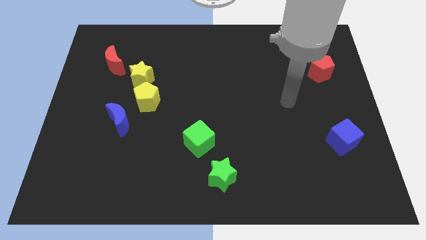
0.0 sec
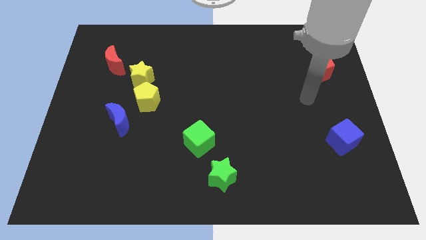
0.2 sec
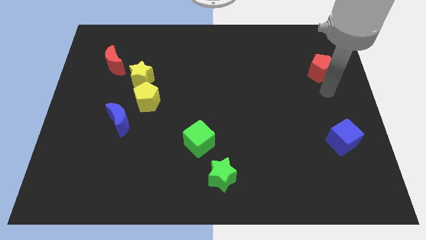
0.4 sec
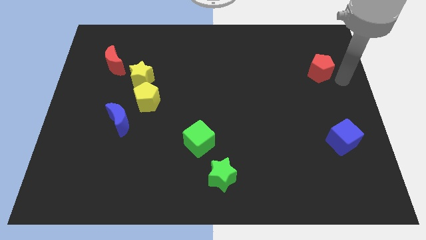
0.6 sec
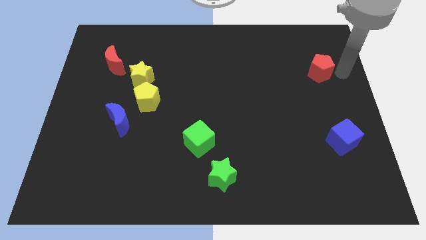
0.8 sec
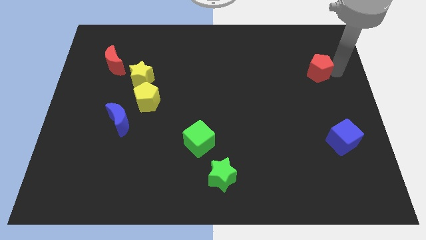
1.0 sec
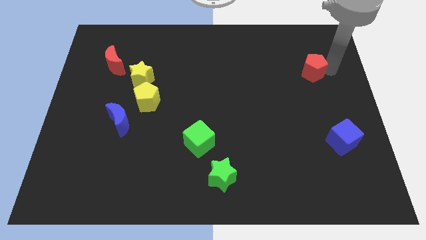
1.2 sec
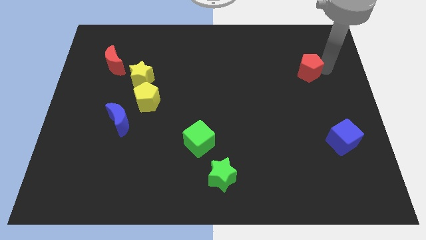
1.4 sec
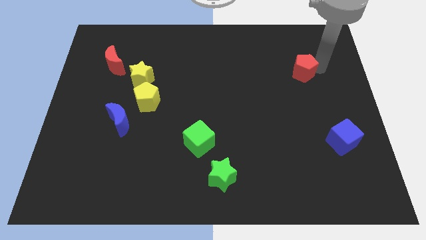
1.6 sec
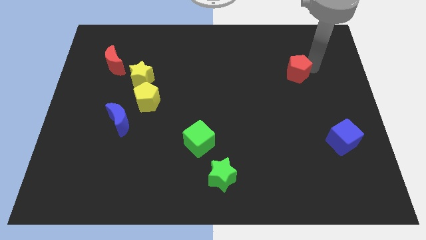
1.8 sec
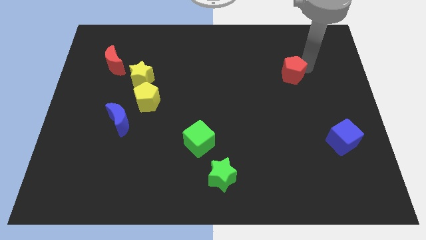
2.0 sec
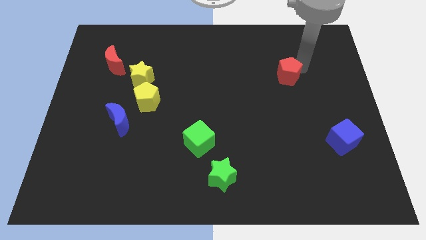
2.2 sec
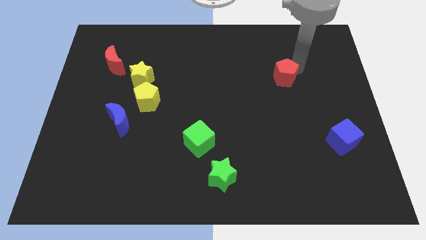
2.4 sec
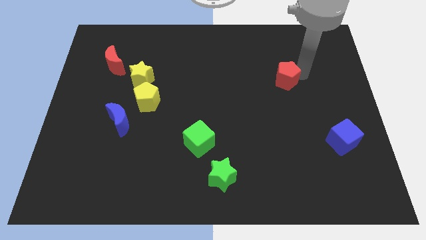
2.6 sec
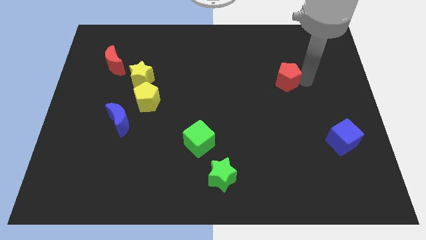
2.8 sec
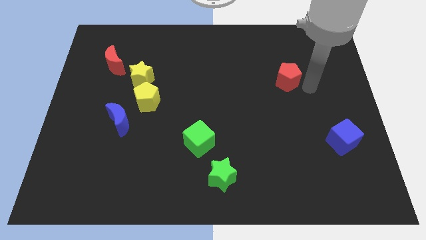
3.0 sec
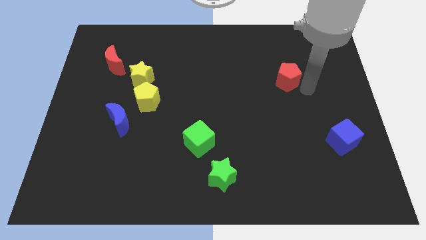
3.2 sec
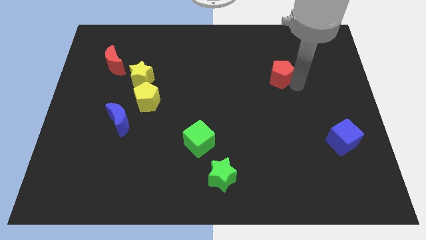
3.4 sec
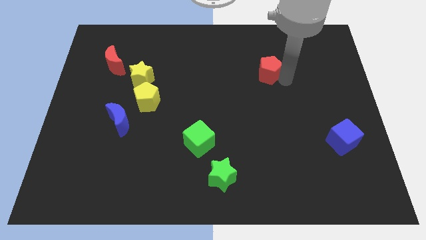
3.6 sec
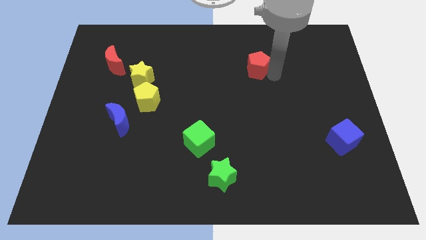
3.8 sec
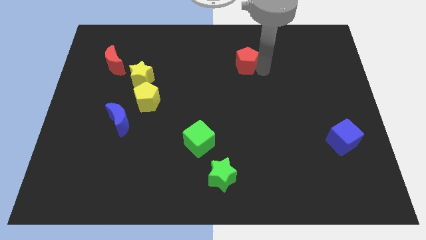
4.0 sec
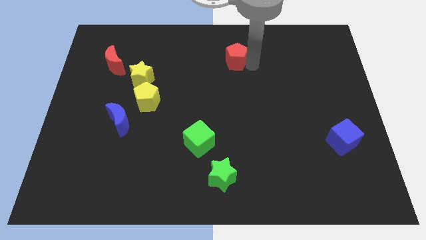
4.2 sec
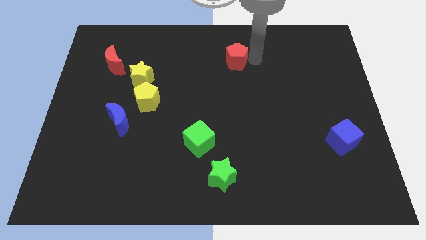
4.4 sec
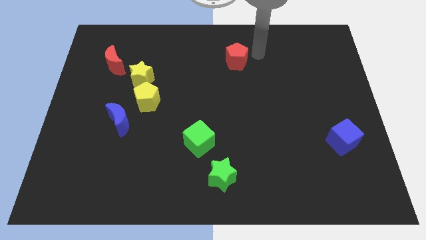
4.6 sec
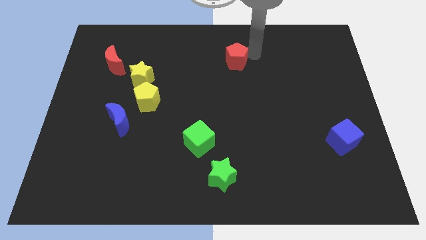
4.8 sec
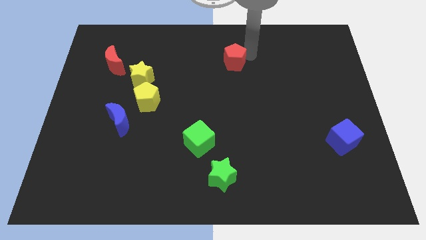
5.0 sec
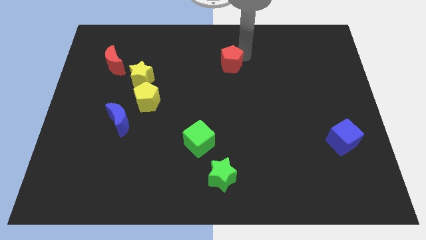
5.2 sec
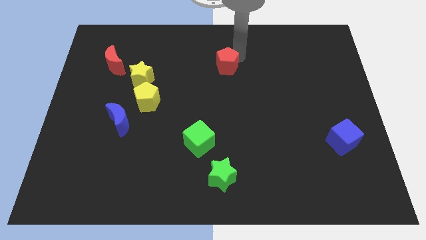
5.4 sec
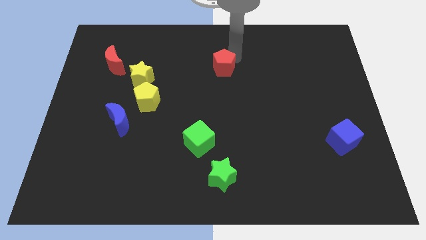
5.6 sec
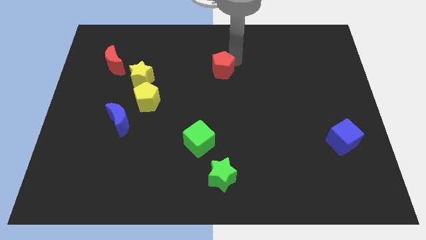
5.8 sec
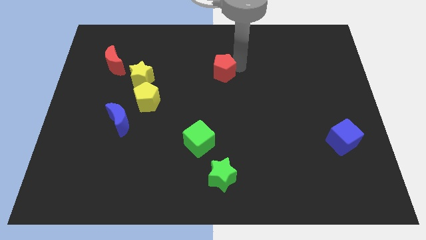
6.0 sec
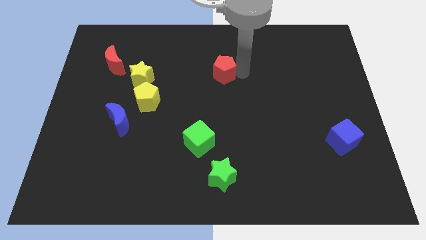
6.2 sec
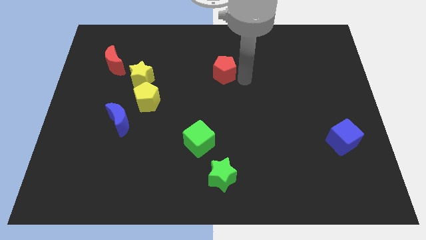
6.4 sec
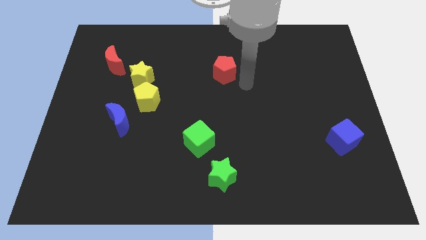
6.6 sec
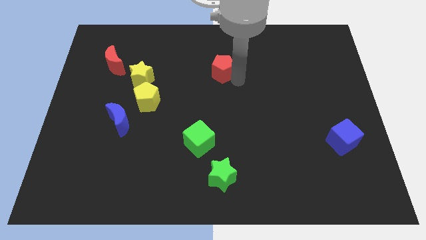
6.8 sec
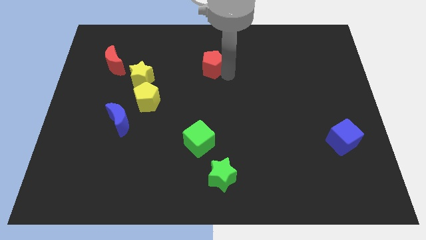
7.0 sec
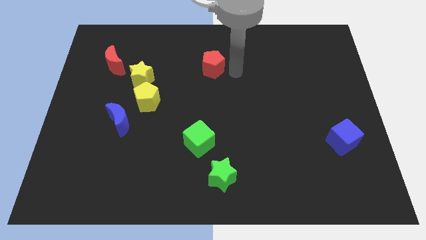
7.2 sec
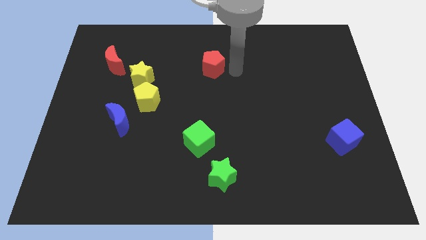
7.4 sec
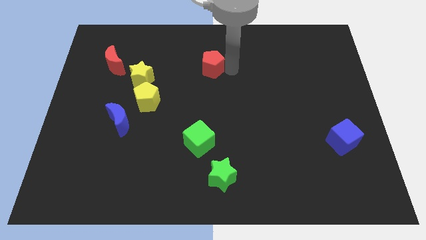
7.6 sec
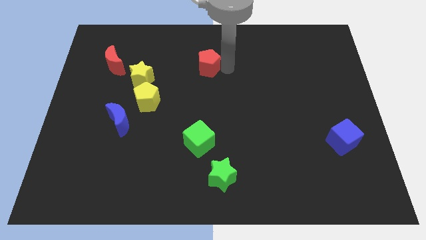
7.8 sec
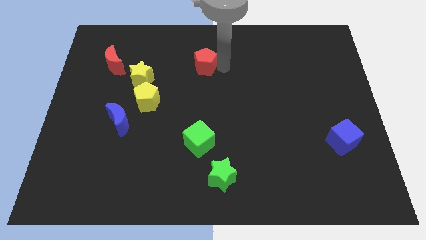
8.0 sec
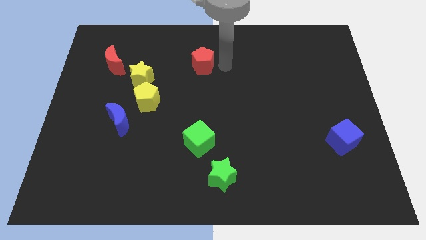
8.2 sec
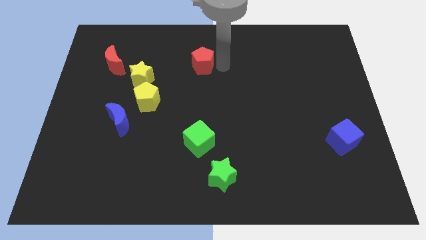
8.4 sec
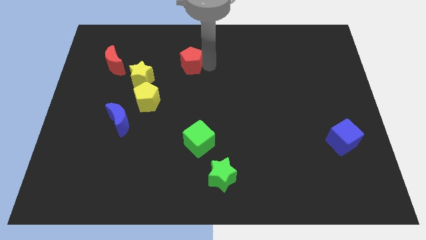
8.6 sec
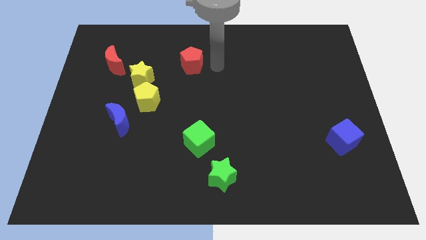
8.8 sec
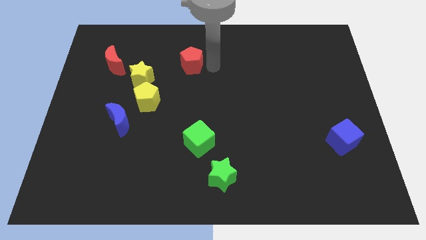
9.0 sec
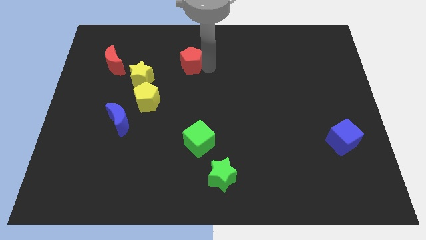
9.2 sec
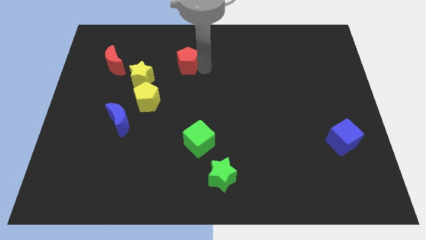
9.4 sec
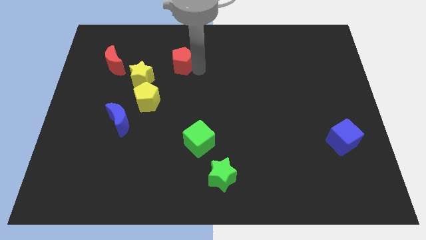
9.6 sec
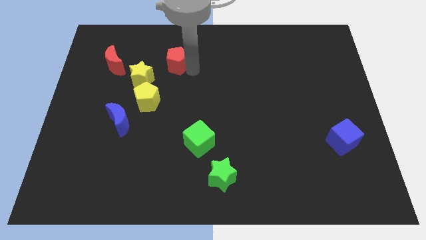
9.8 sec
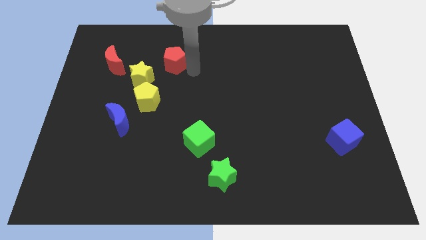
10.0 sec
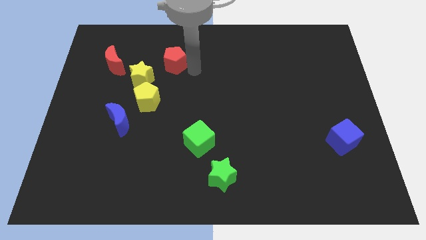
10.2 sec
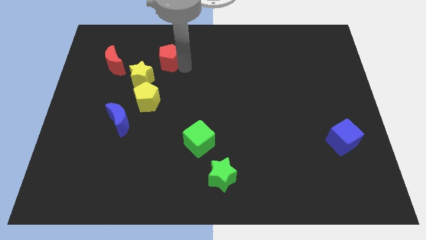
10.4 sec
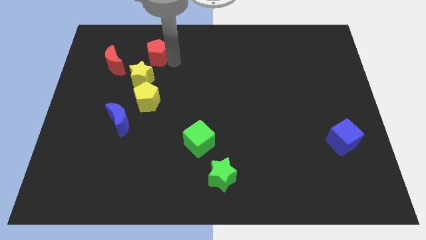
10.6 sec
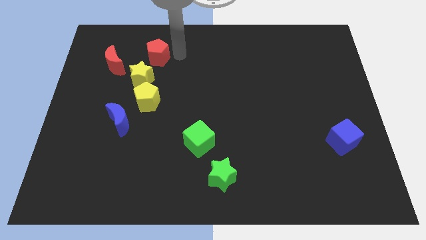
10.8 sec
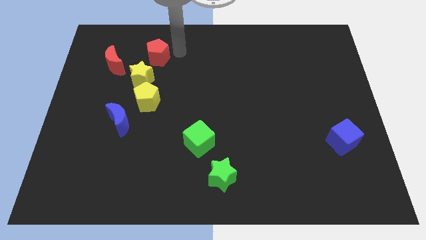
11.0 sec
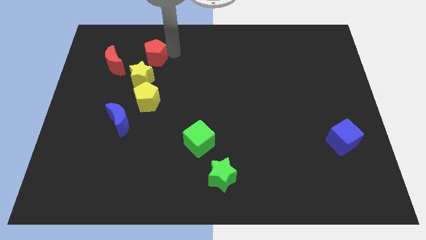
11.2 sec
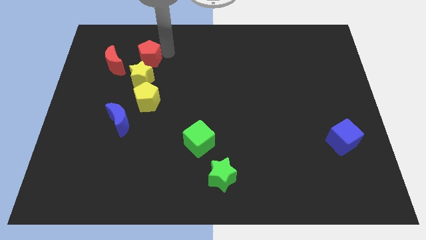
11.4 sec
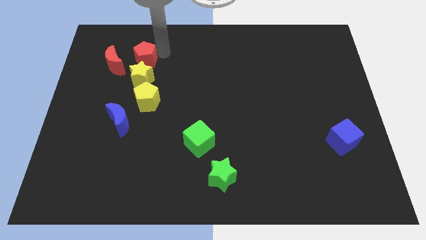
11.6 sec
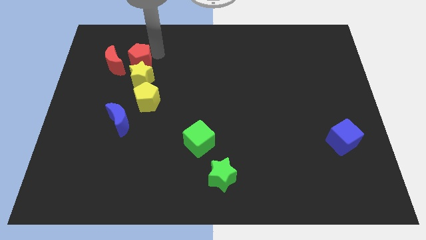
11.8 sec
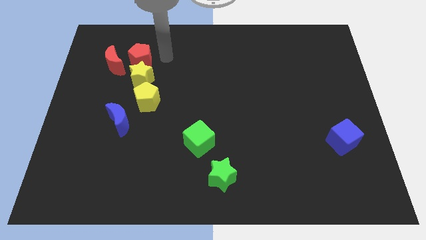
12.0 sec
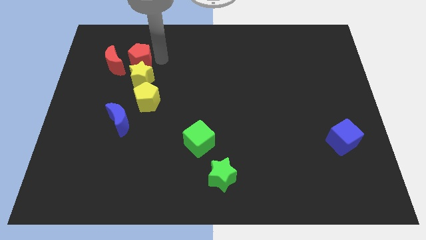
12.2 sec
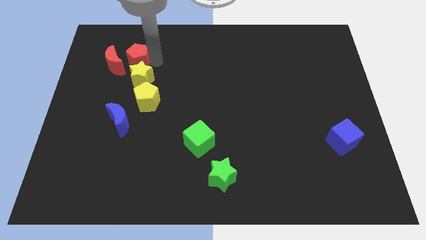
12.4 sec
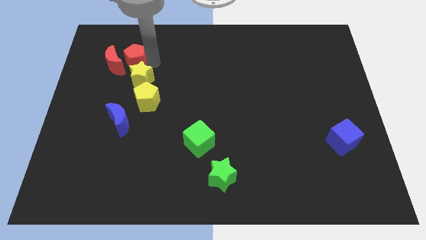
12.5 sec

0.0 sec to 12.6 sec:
move the red pentagon to the red moon

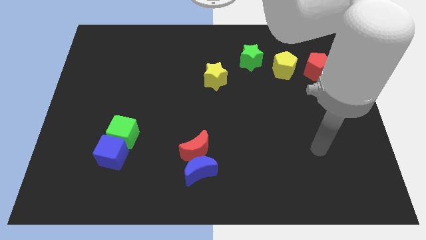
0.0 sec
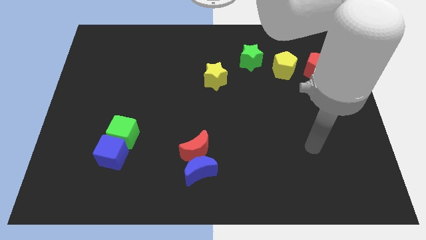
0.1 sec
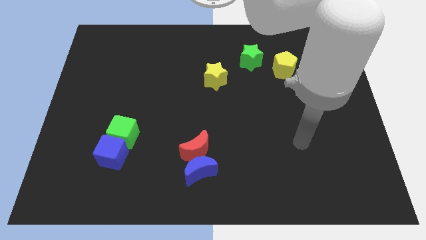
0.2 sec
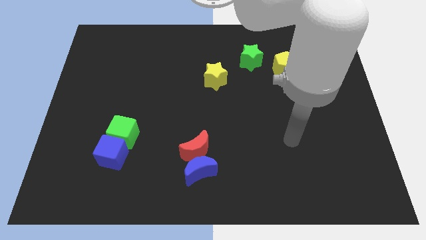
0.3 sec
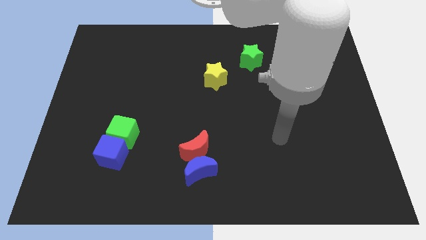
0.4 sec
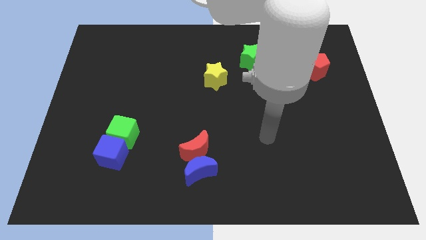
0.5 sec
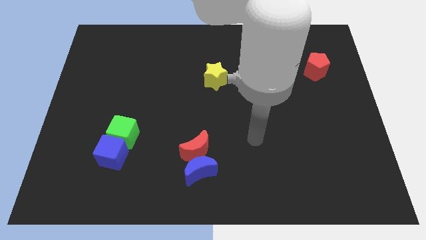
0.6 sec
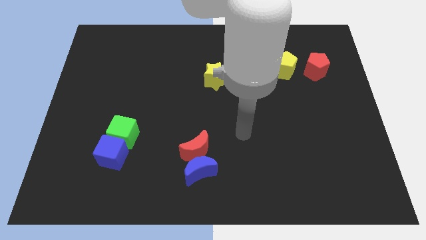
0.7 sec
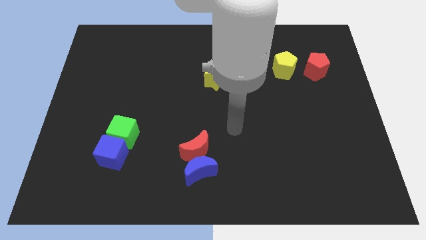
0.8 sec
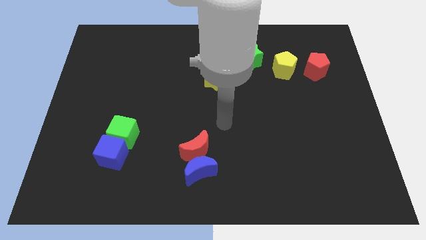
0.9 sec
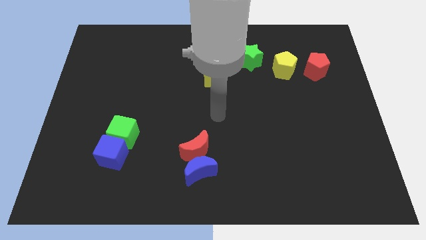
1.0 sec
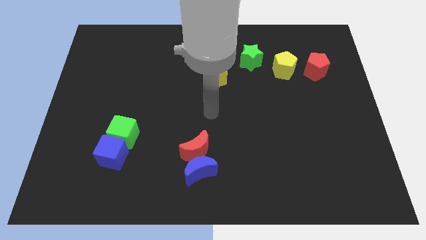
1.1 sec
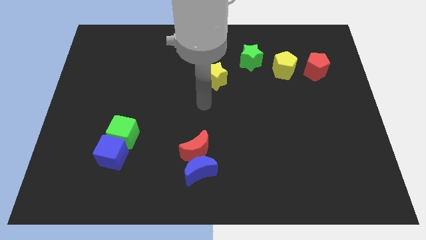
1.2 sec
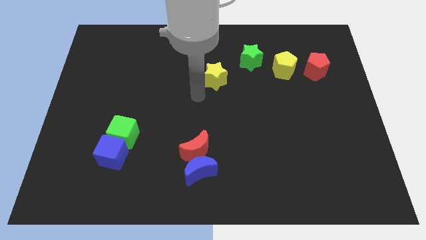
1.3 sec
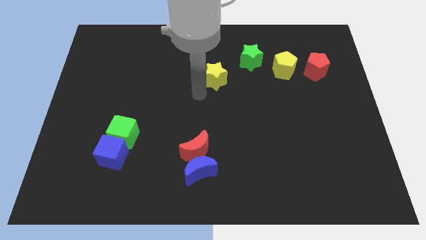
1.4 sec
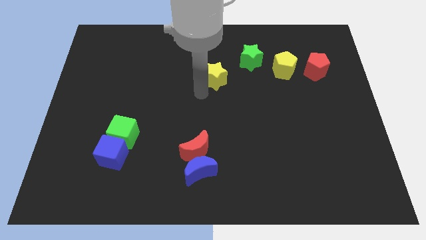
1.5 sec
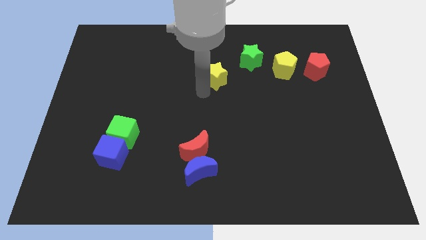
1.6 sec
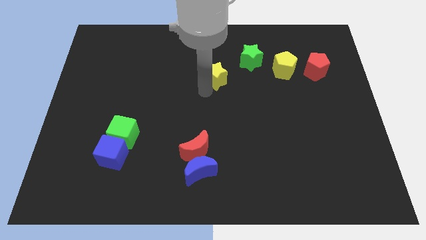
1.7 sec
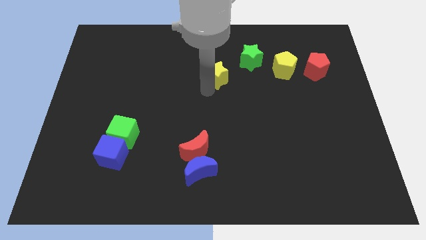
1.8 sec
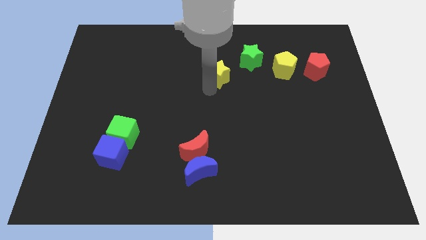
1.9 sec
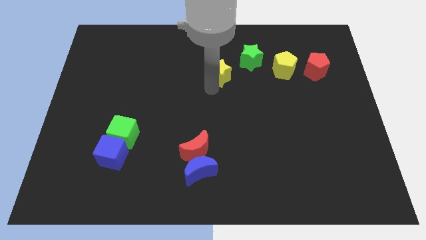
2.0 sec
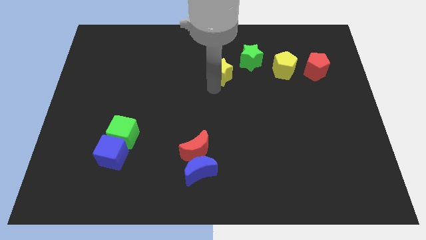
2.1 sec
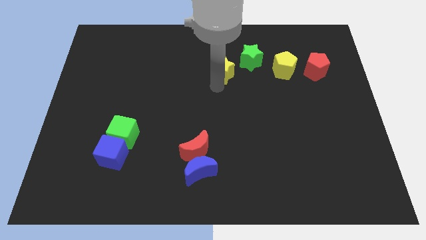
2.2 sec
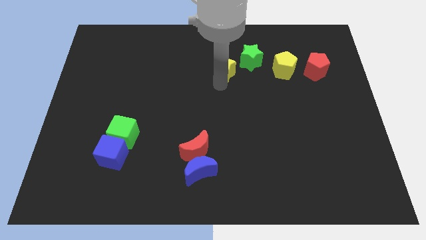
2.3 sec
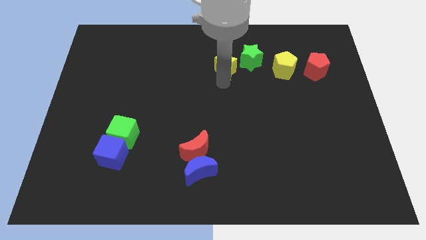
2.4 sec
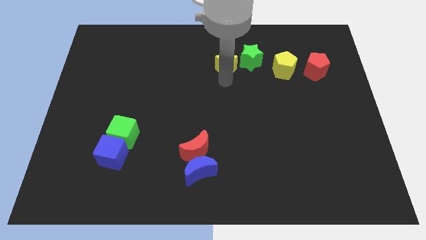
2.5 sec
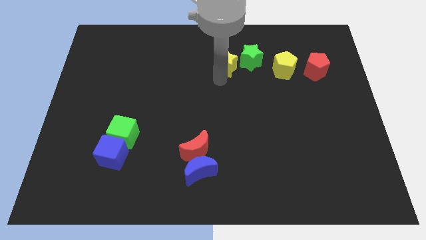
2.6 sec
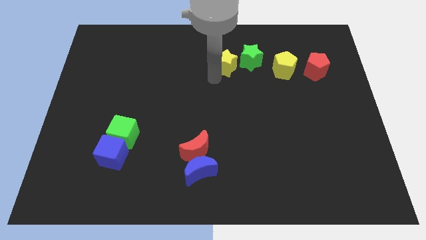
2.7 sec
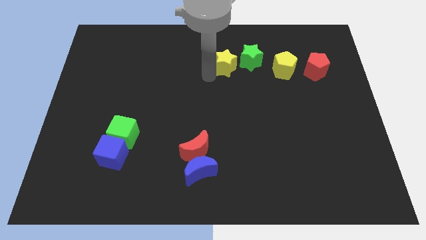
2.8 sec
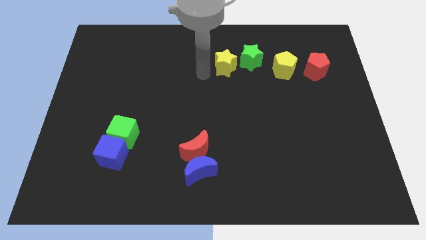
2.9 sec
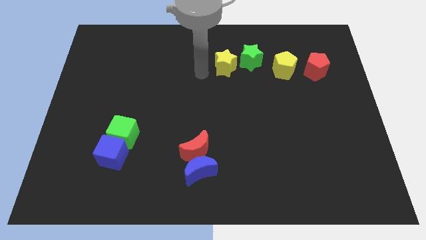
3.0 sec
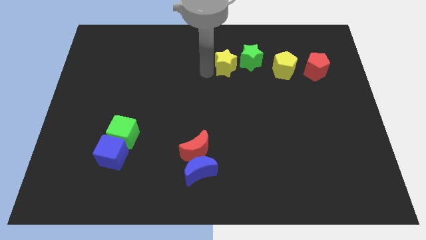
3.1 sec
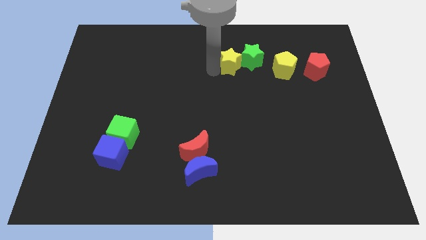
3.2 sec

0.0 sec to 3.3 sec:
put the yellow star next to the green star
